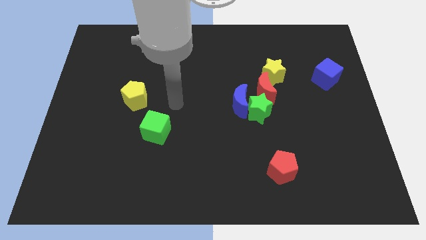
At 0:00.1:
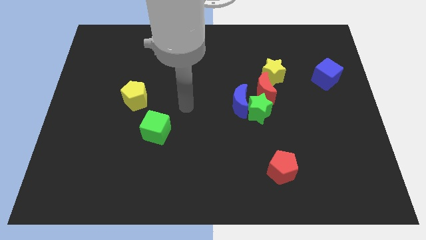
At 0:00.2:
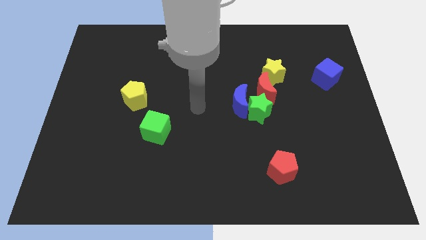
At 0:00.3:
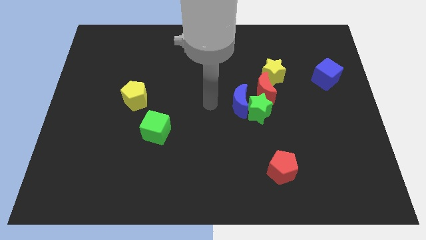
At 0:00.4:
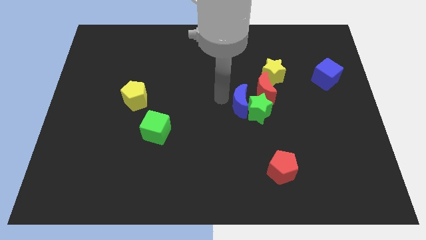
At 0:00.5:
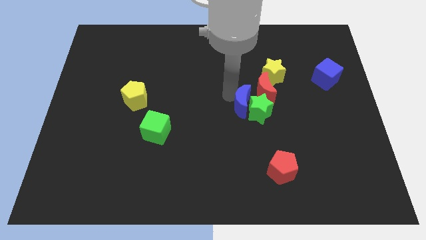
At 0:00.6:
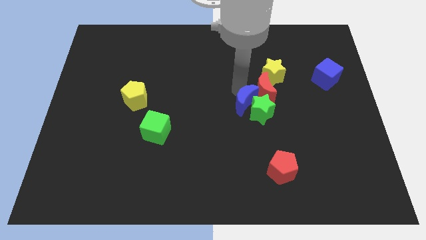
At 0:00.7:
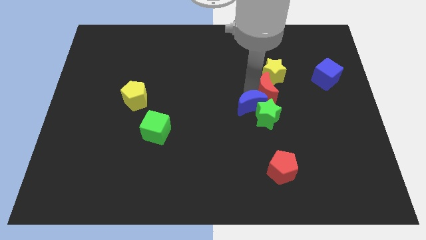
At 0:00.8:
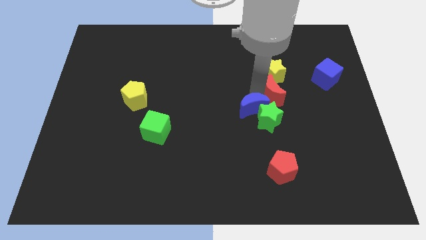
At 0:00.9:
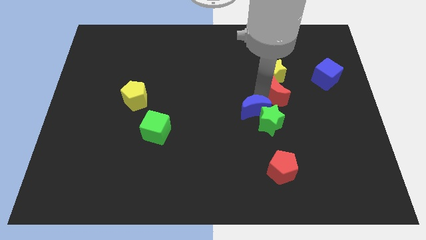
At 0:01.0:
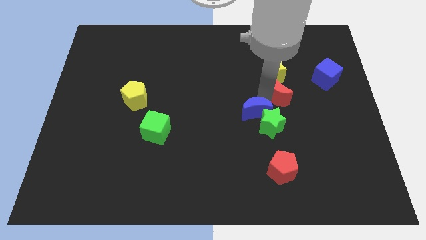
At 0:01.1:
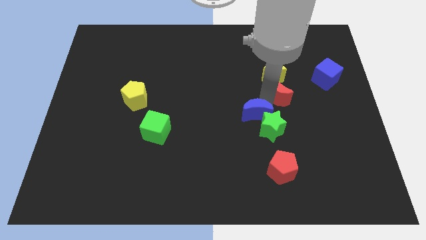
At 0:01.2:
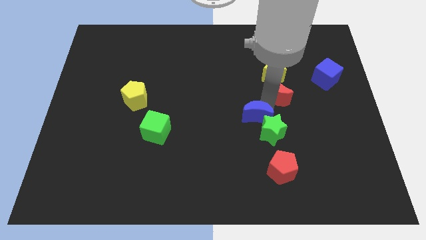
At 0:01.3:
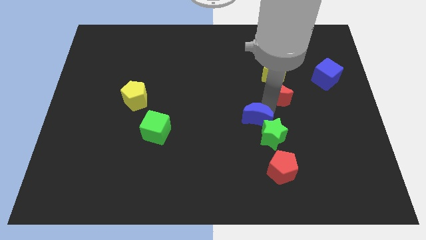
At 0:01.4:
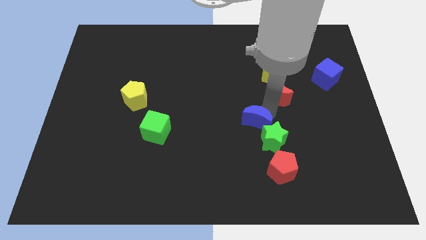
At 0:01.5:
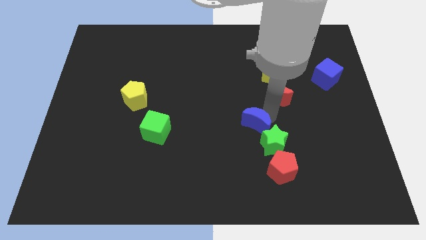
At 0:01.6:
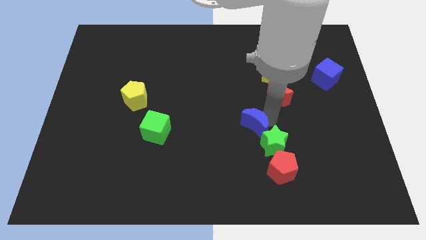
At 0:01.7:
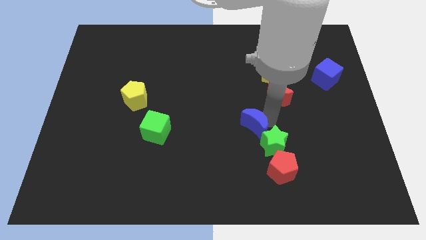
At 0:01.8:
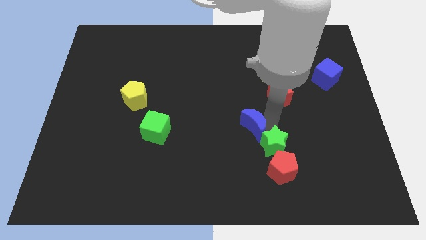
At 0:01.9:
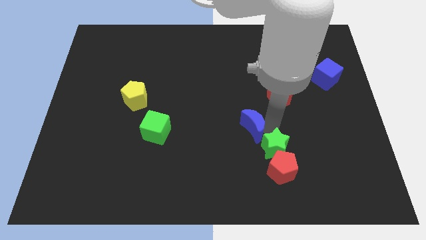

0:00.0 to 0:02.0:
move the green star away from the blue moon and red moon

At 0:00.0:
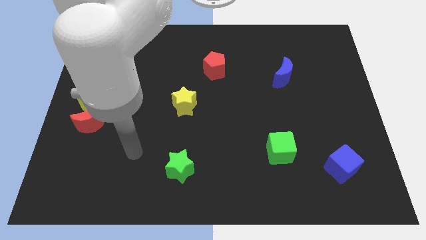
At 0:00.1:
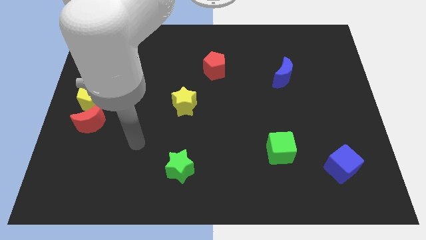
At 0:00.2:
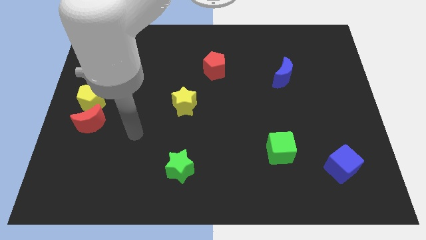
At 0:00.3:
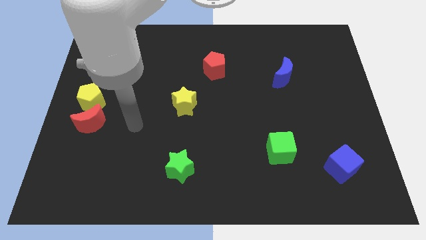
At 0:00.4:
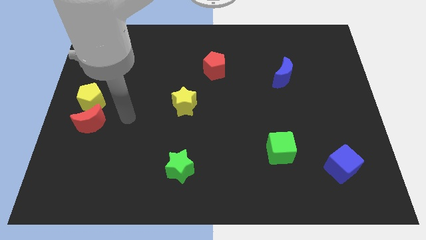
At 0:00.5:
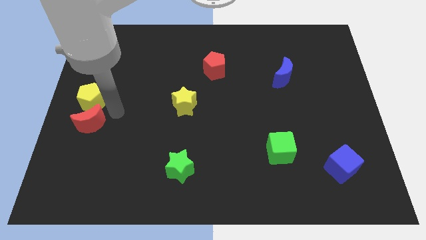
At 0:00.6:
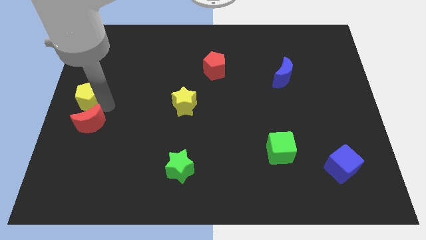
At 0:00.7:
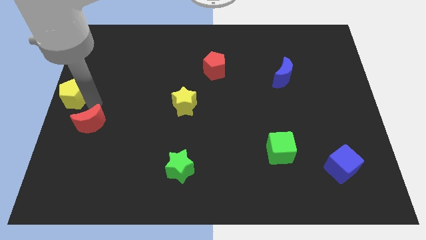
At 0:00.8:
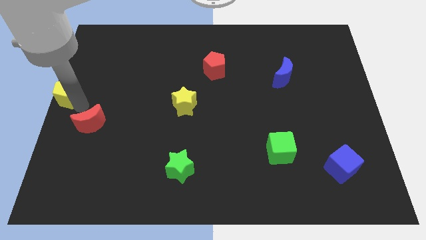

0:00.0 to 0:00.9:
move the red moon away from the yellow pentagon

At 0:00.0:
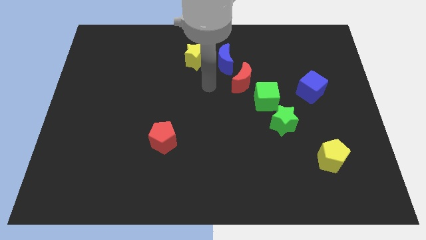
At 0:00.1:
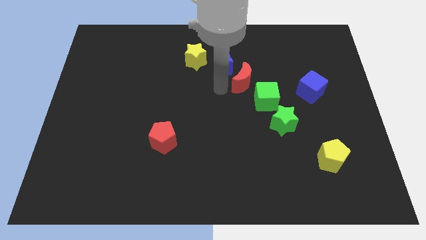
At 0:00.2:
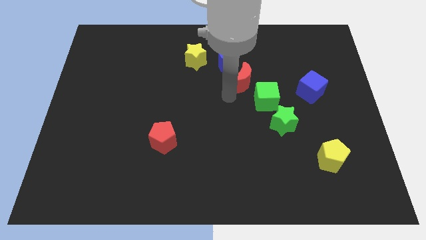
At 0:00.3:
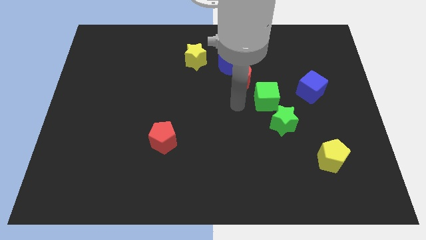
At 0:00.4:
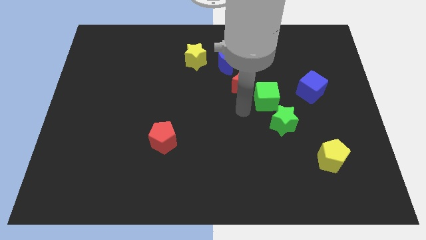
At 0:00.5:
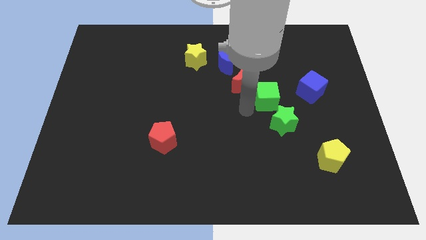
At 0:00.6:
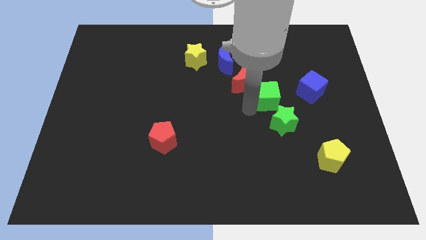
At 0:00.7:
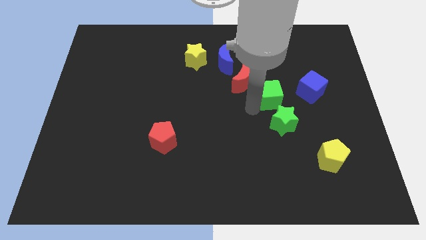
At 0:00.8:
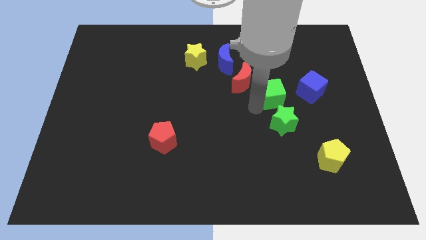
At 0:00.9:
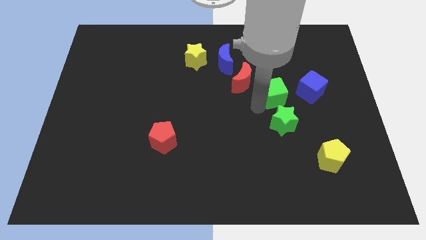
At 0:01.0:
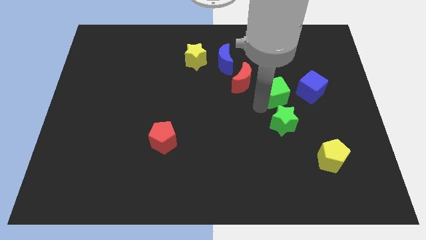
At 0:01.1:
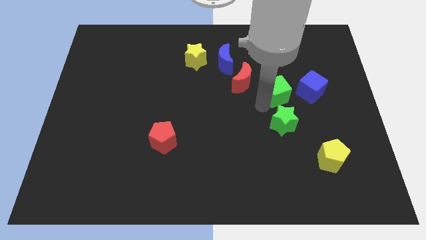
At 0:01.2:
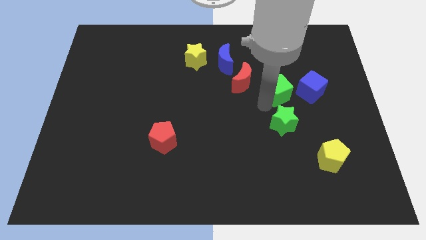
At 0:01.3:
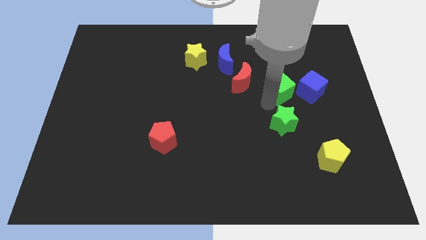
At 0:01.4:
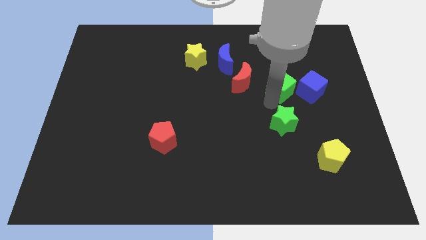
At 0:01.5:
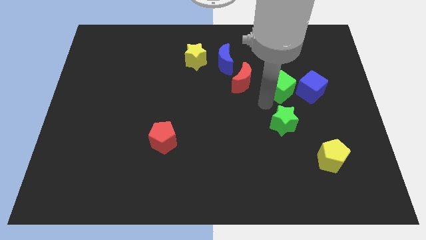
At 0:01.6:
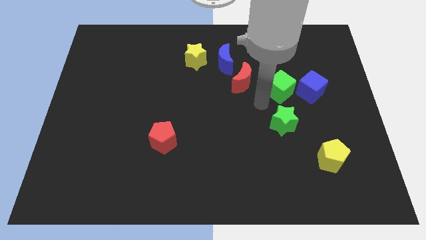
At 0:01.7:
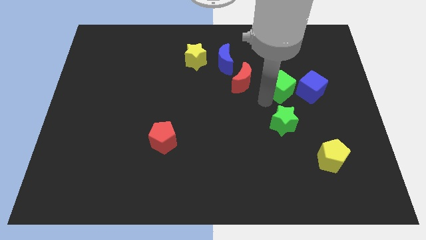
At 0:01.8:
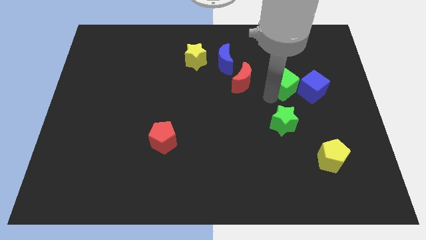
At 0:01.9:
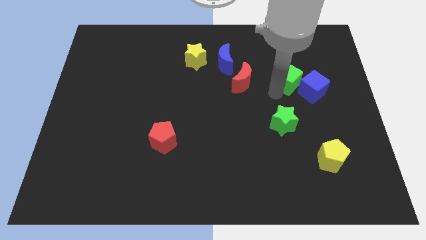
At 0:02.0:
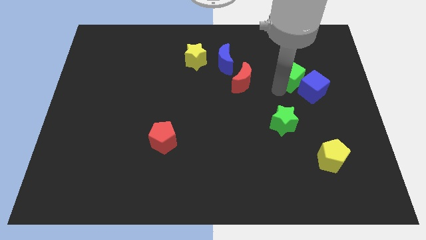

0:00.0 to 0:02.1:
separate the green cube from the red moon and green star

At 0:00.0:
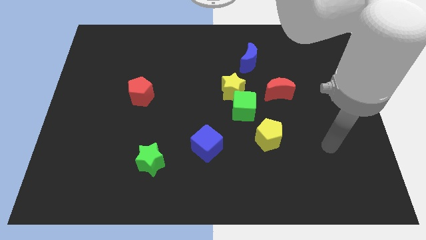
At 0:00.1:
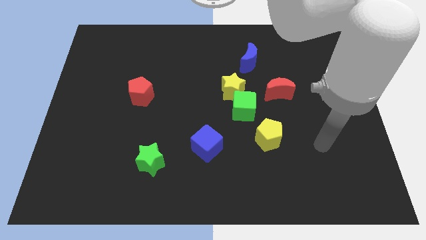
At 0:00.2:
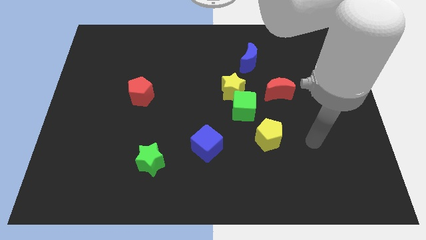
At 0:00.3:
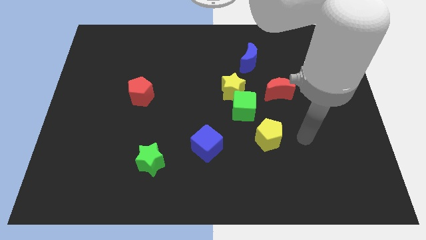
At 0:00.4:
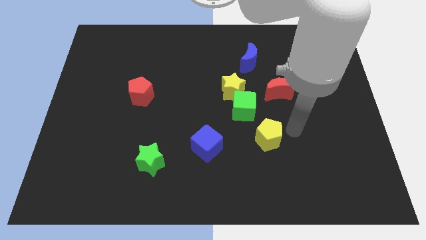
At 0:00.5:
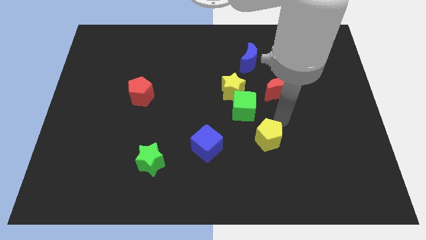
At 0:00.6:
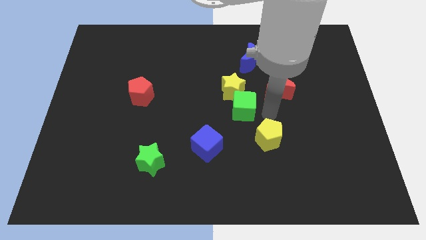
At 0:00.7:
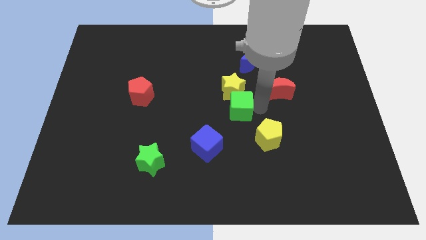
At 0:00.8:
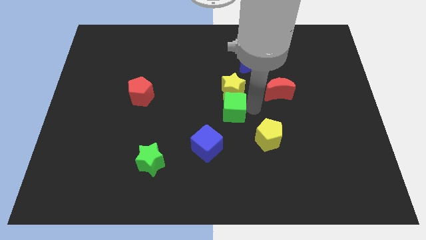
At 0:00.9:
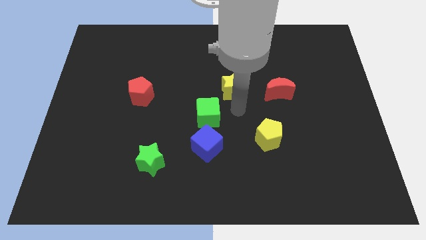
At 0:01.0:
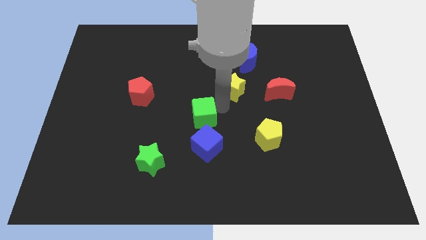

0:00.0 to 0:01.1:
pull the yellow star apart from the green cube

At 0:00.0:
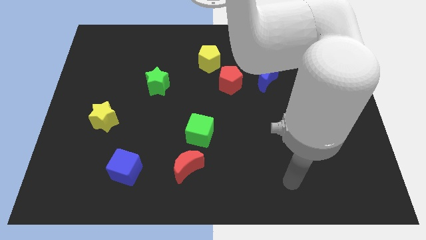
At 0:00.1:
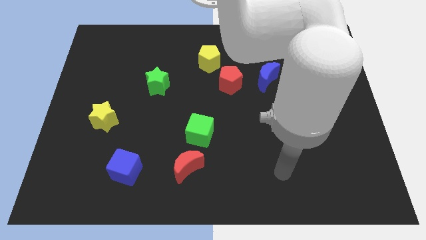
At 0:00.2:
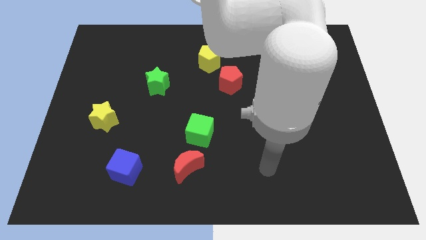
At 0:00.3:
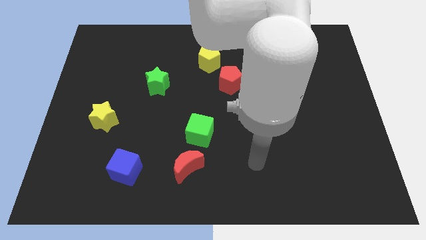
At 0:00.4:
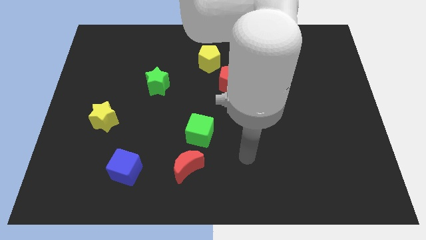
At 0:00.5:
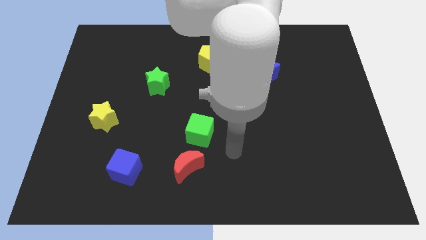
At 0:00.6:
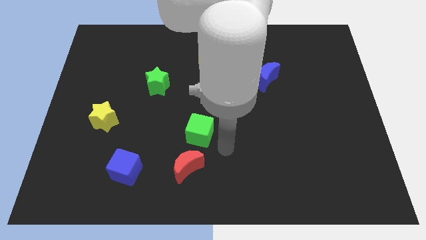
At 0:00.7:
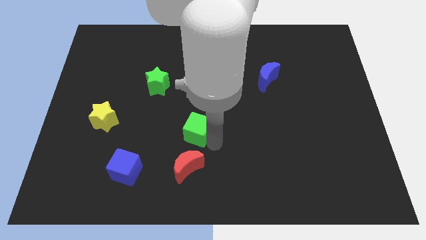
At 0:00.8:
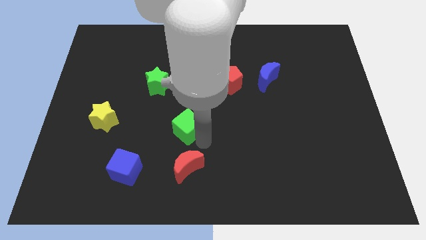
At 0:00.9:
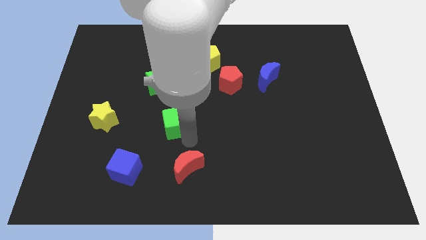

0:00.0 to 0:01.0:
pull the red moon apart from the green cube

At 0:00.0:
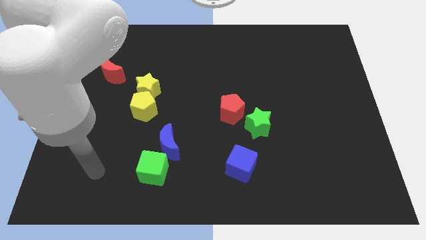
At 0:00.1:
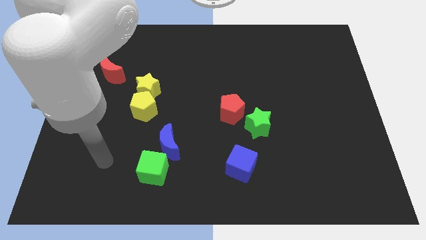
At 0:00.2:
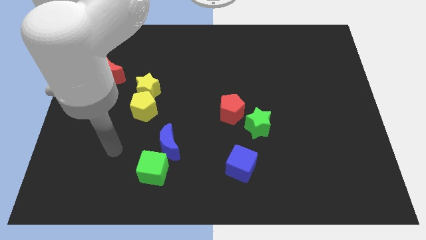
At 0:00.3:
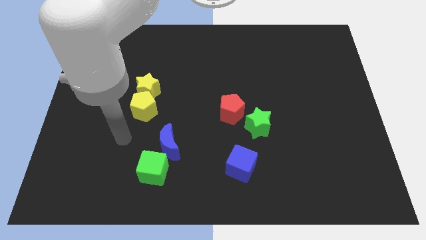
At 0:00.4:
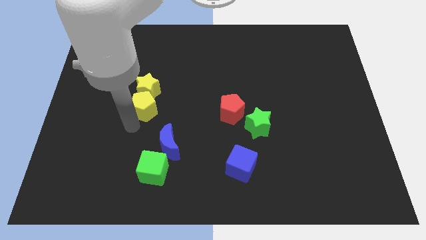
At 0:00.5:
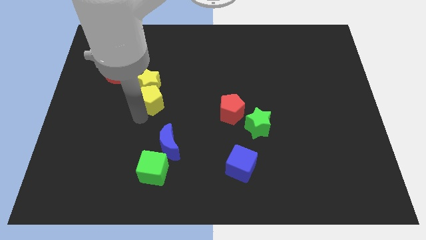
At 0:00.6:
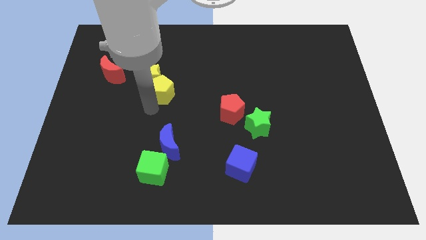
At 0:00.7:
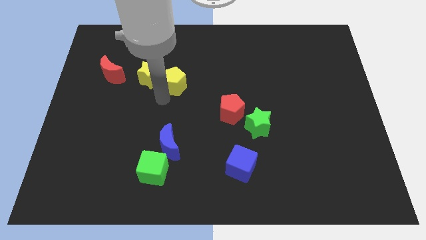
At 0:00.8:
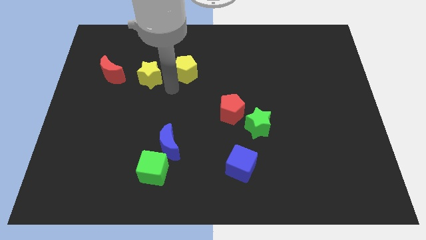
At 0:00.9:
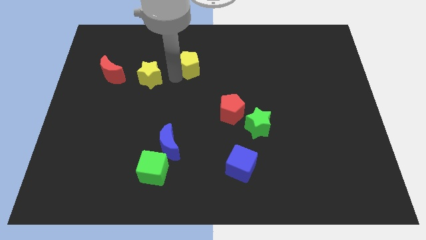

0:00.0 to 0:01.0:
pull the yellow star apart from the yellow pentagon

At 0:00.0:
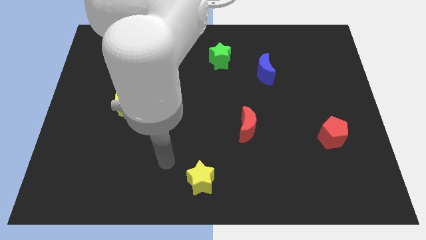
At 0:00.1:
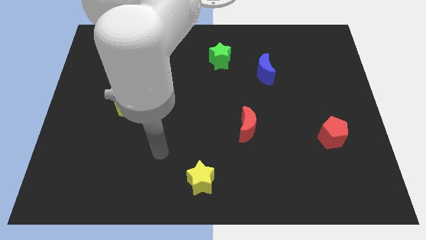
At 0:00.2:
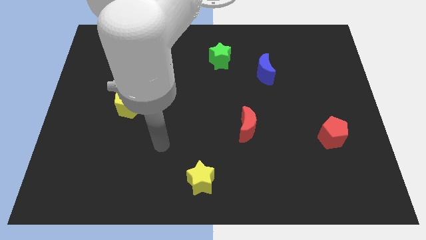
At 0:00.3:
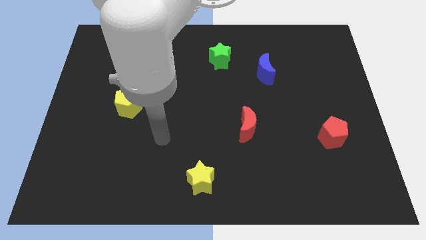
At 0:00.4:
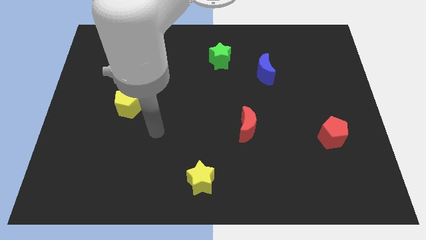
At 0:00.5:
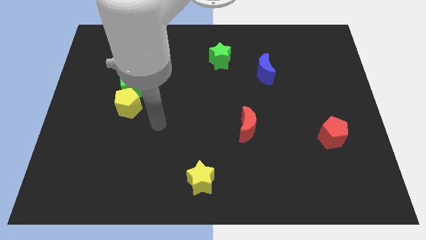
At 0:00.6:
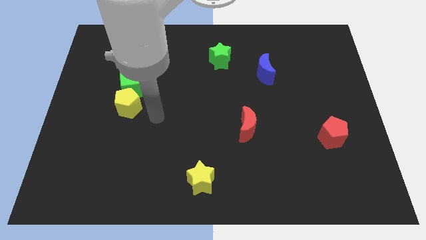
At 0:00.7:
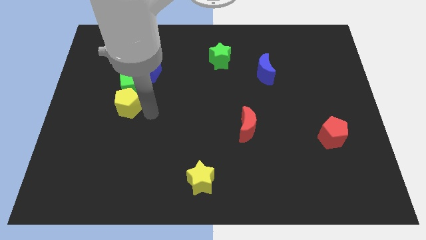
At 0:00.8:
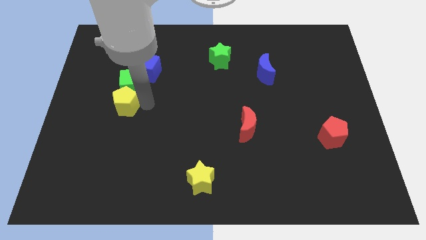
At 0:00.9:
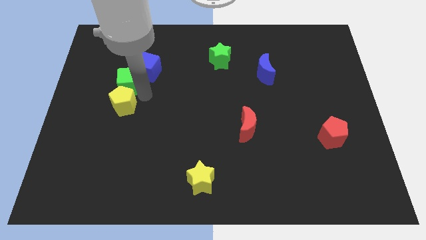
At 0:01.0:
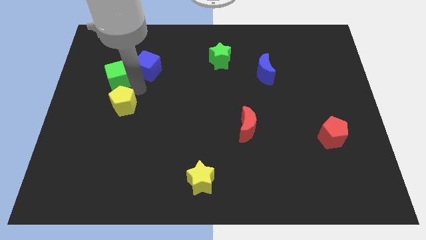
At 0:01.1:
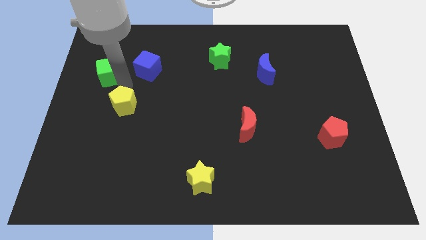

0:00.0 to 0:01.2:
move the yellow pentagon away from the green cube

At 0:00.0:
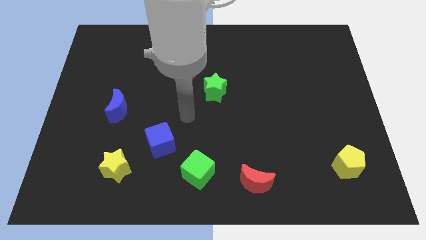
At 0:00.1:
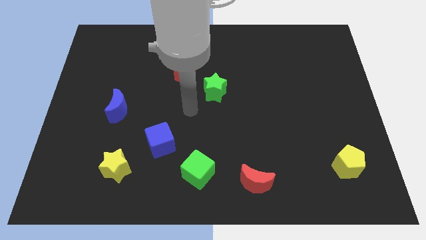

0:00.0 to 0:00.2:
separate the red pentagon from the green star
